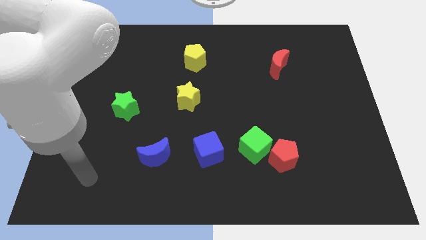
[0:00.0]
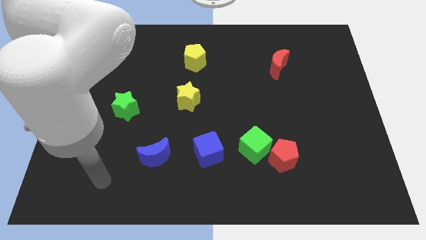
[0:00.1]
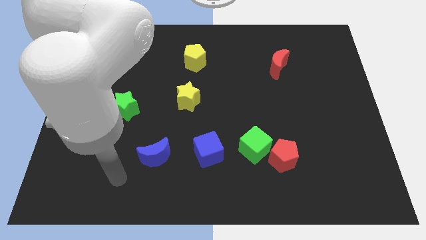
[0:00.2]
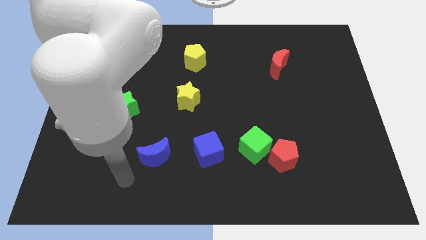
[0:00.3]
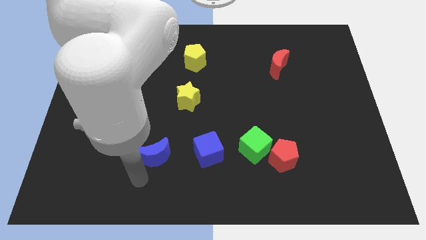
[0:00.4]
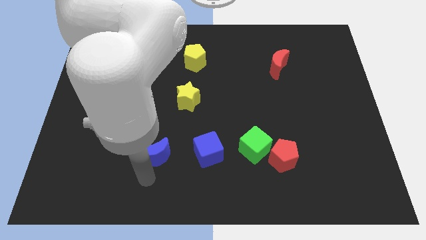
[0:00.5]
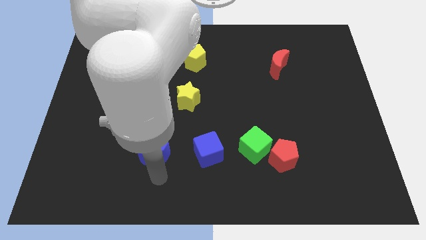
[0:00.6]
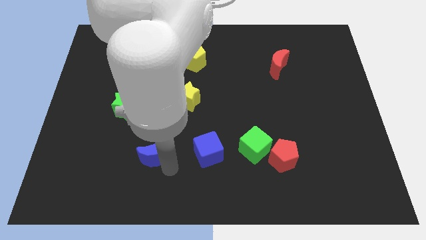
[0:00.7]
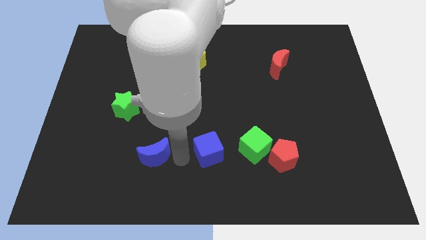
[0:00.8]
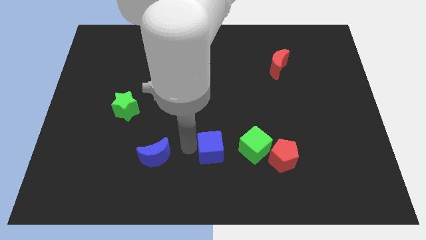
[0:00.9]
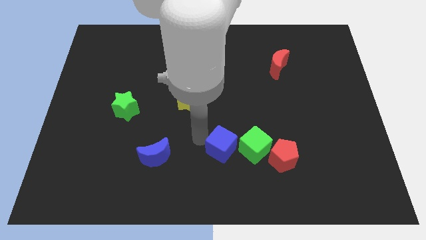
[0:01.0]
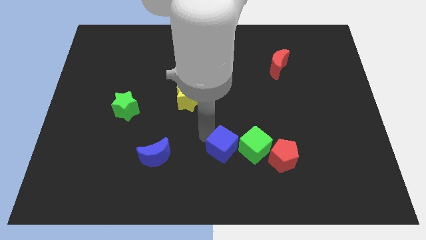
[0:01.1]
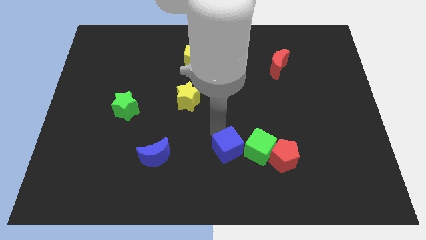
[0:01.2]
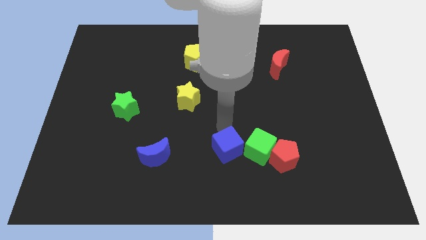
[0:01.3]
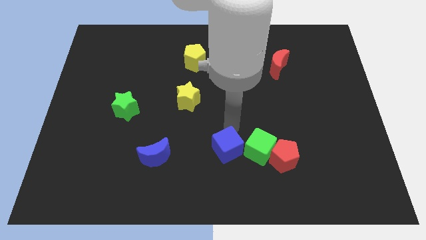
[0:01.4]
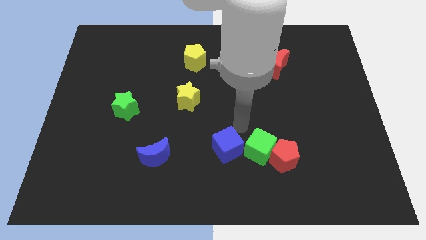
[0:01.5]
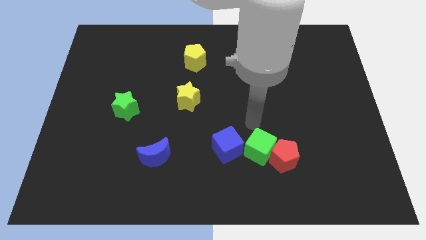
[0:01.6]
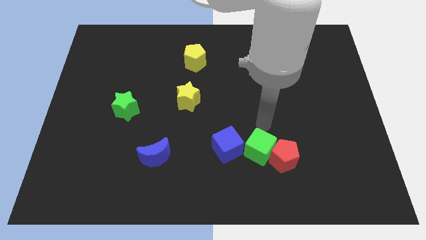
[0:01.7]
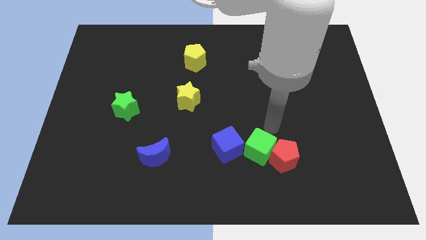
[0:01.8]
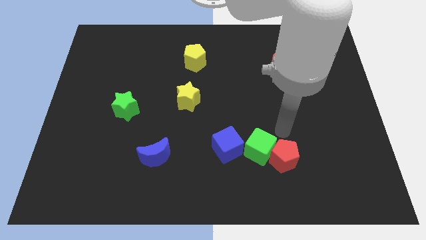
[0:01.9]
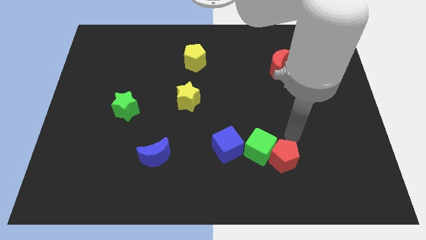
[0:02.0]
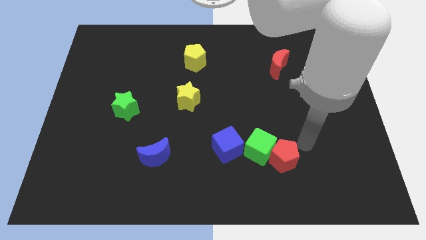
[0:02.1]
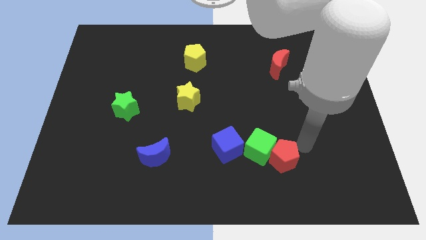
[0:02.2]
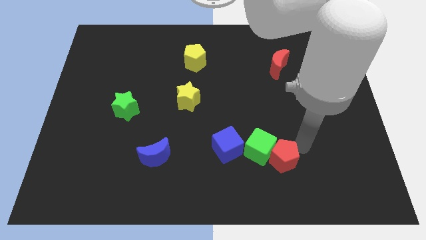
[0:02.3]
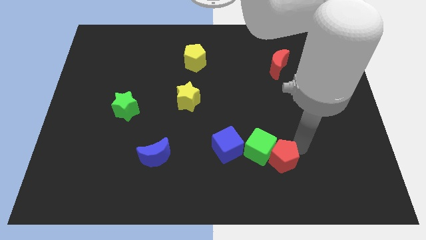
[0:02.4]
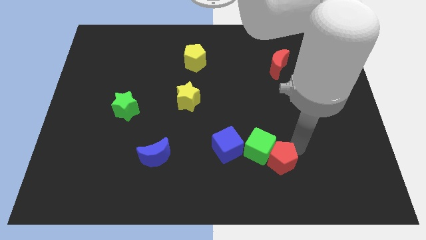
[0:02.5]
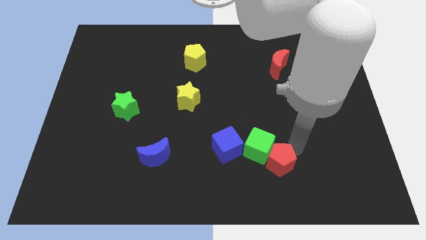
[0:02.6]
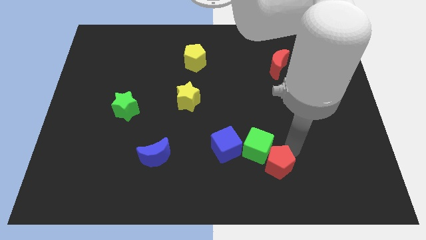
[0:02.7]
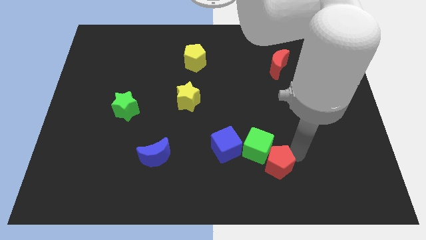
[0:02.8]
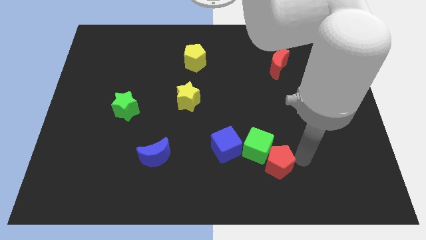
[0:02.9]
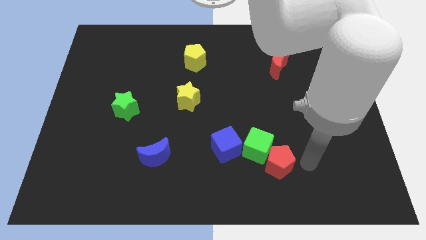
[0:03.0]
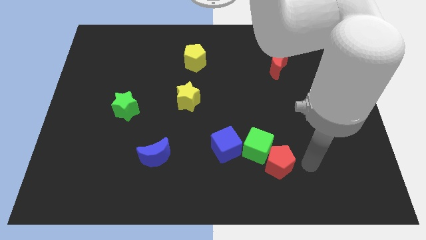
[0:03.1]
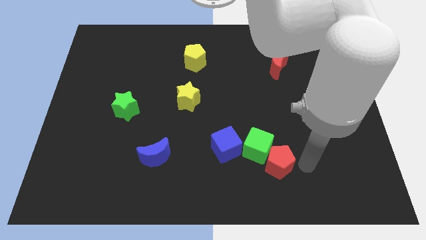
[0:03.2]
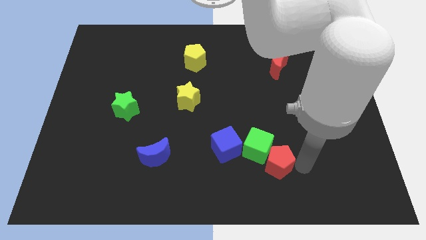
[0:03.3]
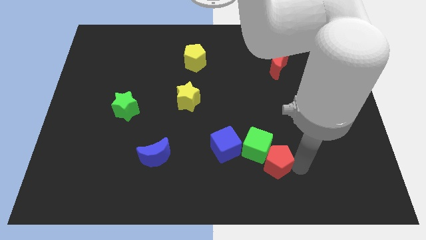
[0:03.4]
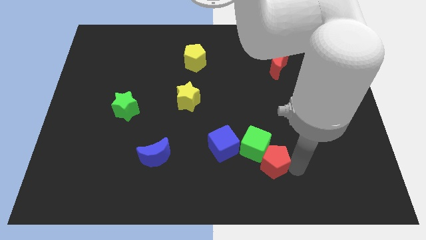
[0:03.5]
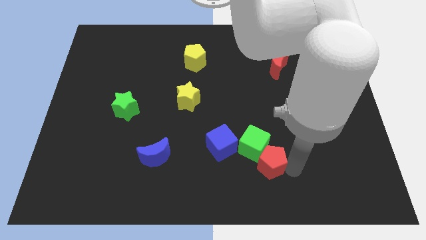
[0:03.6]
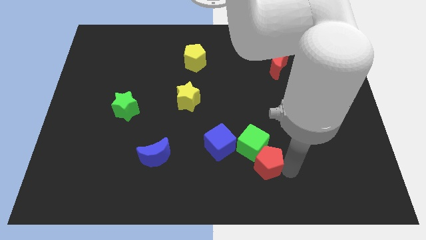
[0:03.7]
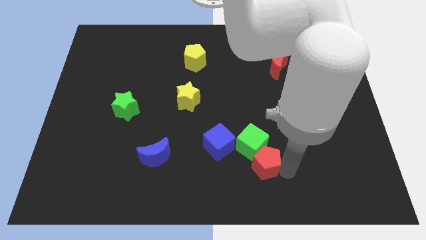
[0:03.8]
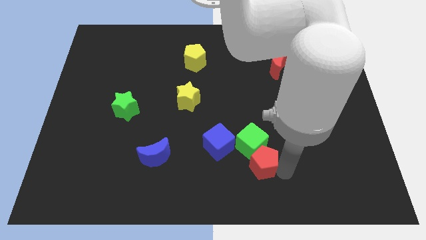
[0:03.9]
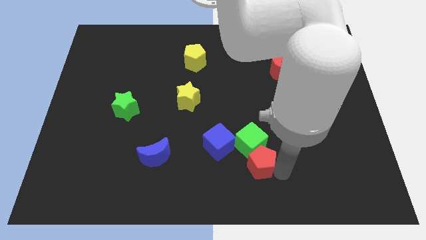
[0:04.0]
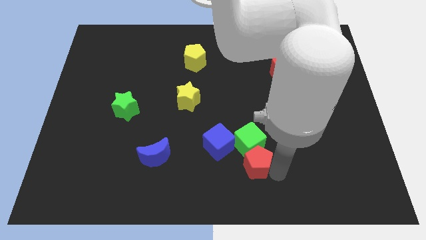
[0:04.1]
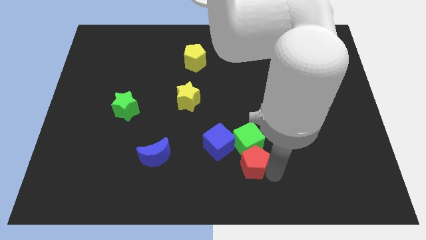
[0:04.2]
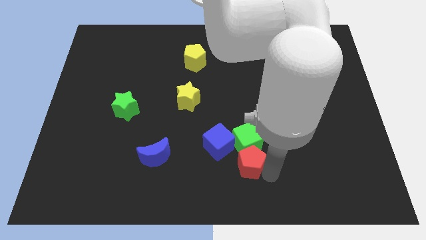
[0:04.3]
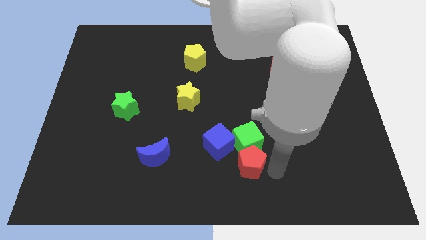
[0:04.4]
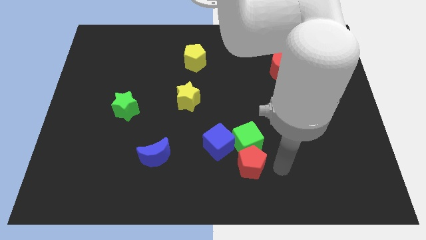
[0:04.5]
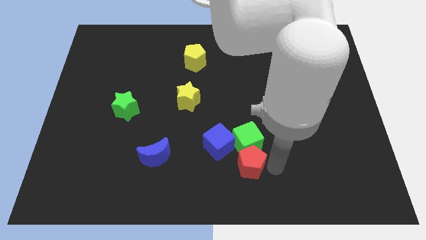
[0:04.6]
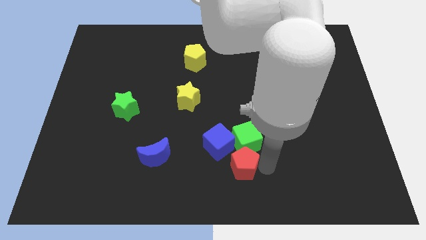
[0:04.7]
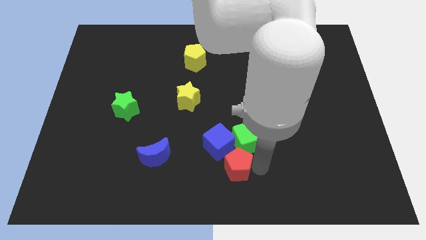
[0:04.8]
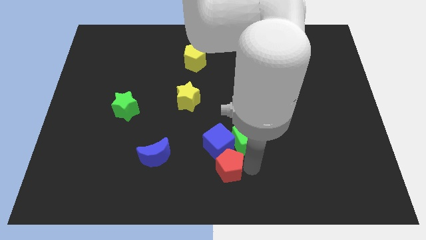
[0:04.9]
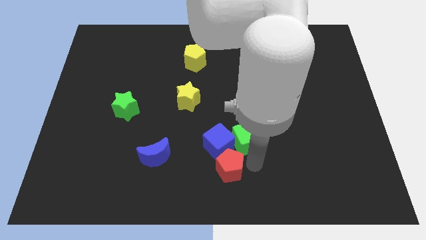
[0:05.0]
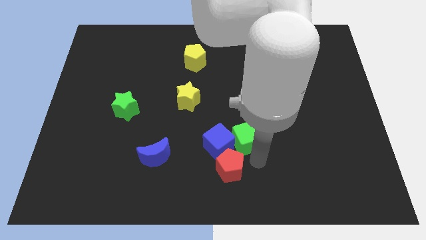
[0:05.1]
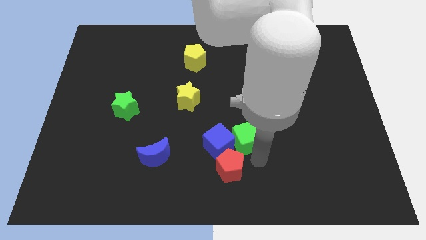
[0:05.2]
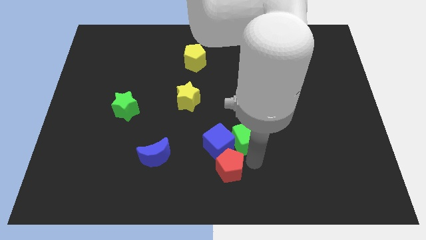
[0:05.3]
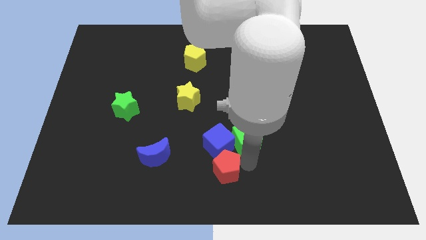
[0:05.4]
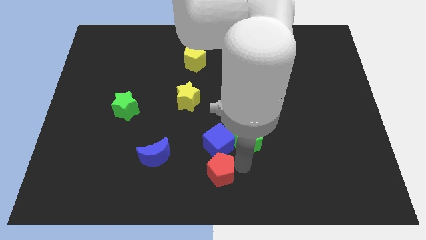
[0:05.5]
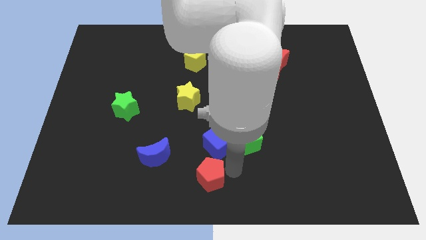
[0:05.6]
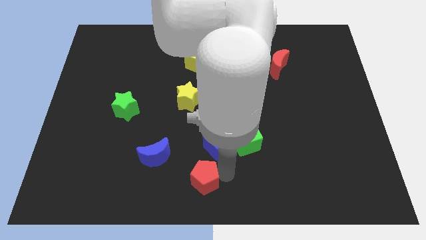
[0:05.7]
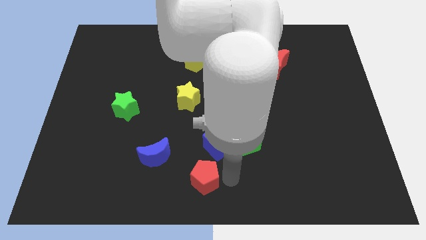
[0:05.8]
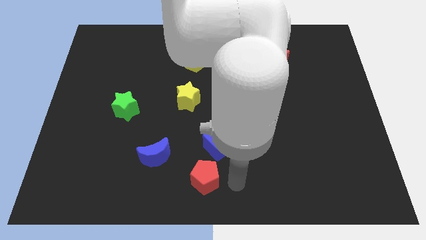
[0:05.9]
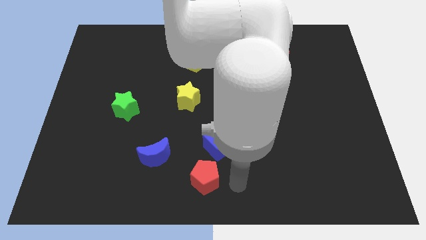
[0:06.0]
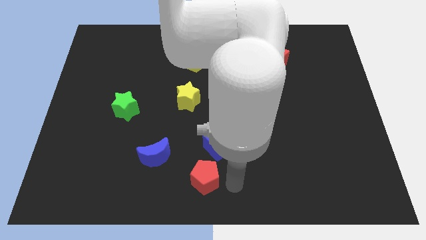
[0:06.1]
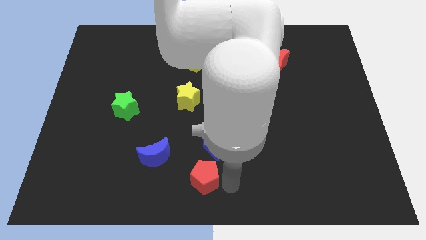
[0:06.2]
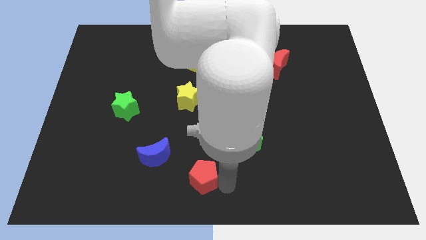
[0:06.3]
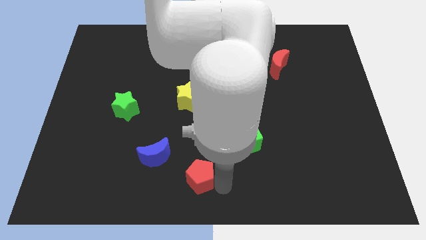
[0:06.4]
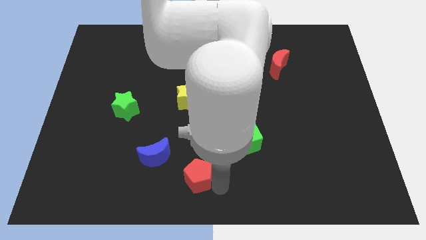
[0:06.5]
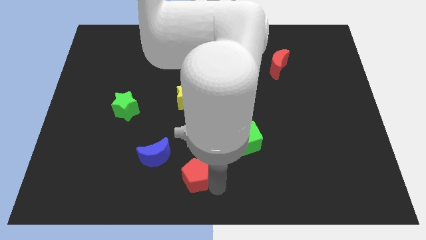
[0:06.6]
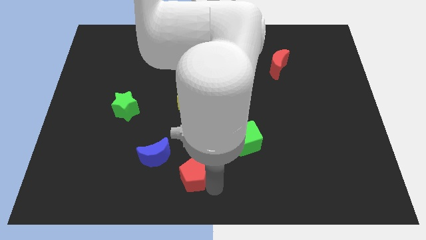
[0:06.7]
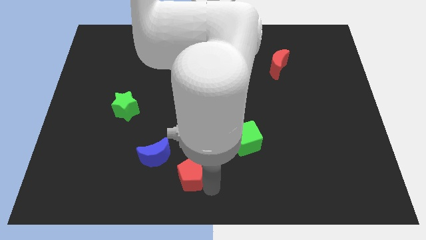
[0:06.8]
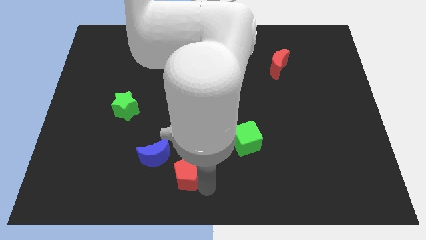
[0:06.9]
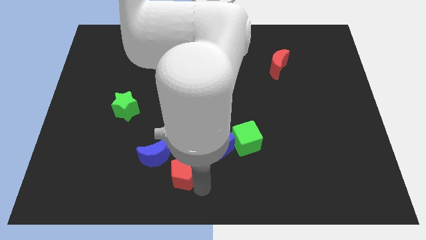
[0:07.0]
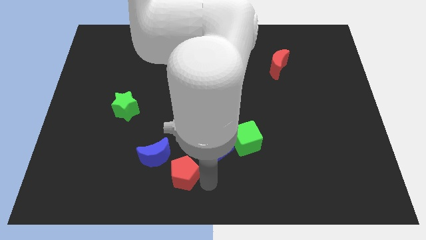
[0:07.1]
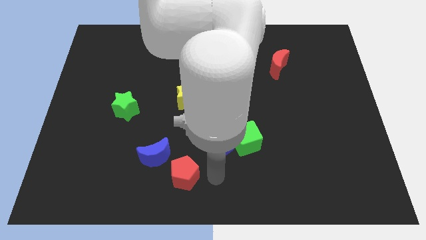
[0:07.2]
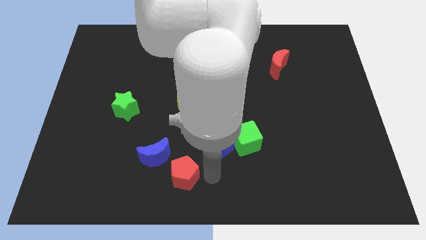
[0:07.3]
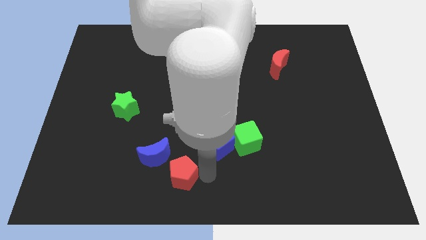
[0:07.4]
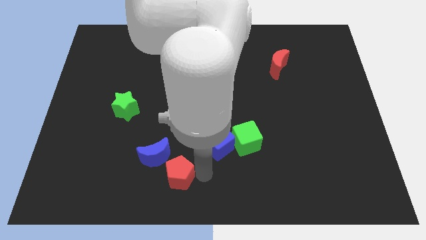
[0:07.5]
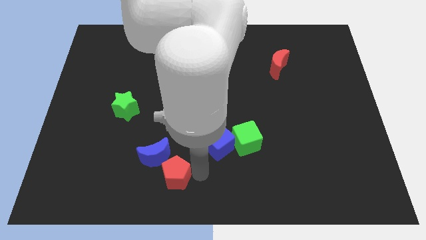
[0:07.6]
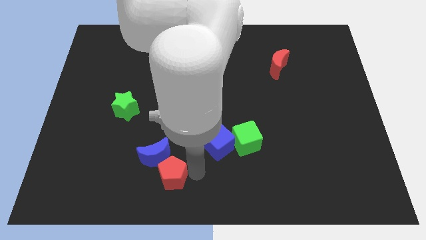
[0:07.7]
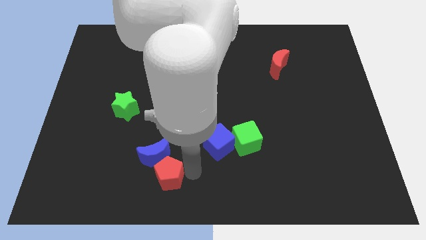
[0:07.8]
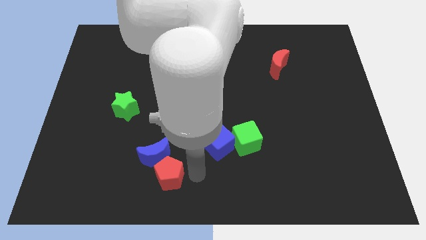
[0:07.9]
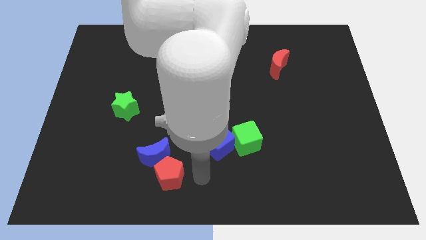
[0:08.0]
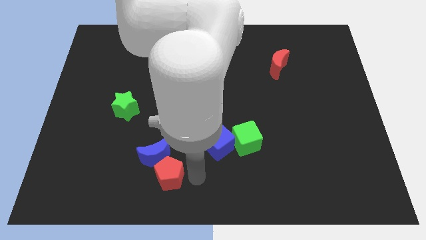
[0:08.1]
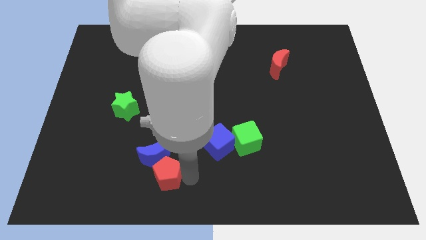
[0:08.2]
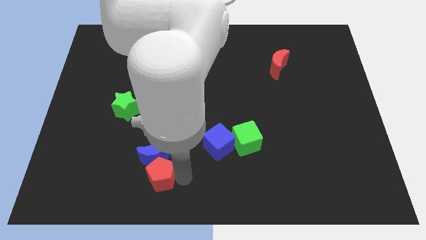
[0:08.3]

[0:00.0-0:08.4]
move the red pentagon to the bottom left of the blue moon
